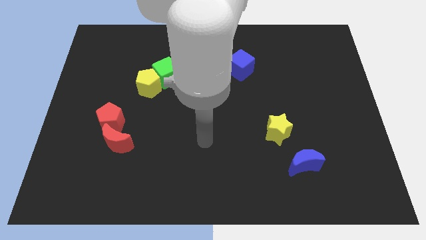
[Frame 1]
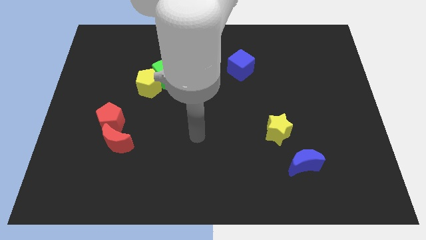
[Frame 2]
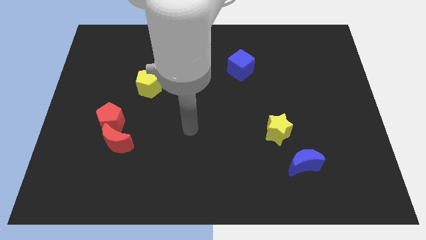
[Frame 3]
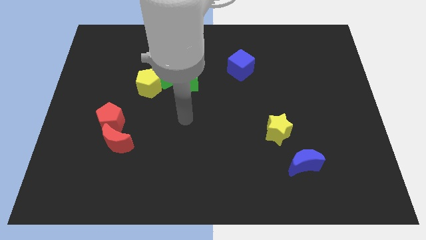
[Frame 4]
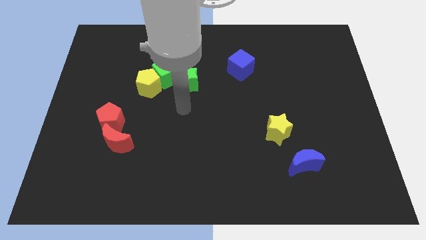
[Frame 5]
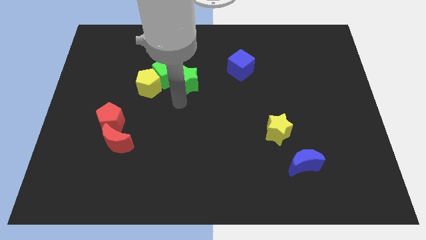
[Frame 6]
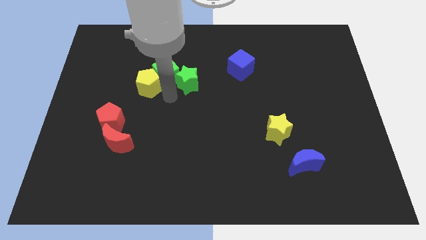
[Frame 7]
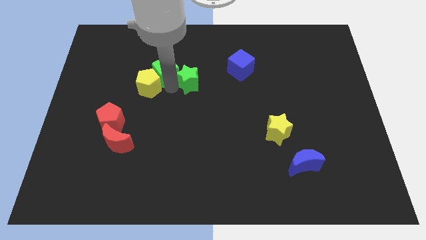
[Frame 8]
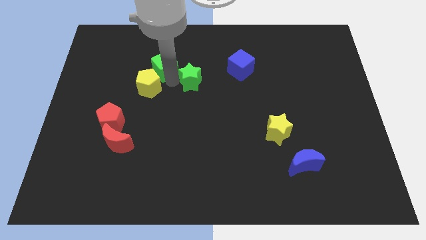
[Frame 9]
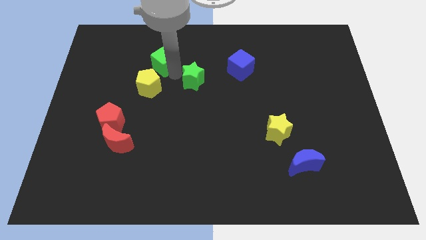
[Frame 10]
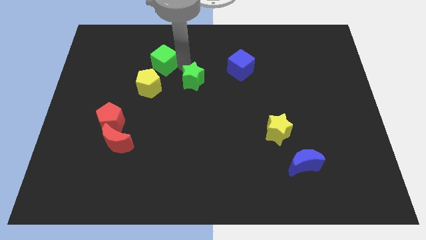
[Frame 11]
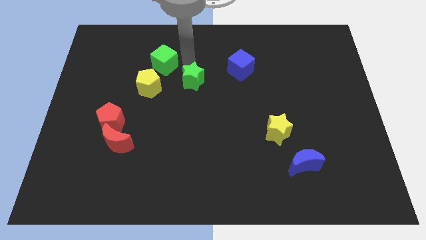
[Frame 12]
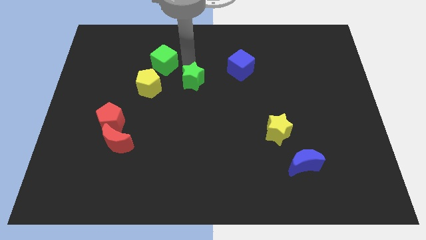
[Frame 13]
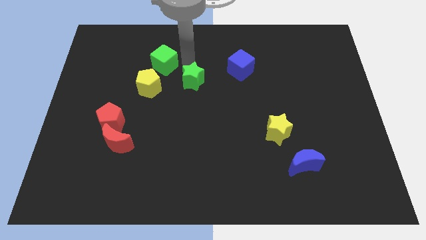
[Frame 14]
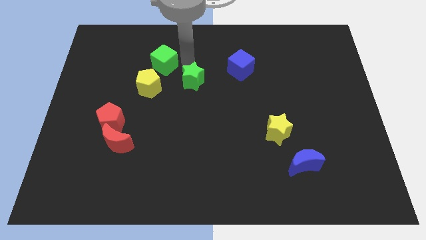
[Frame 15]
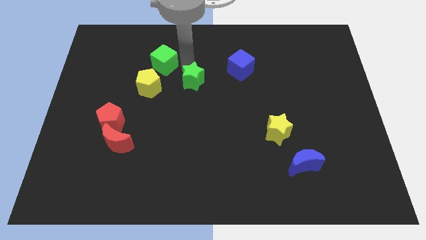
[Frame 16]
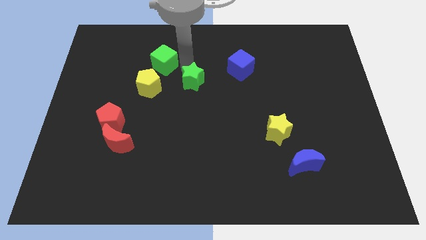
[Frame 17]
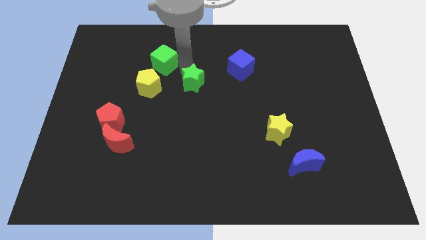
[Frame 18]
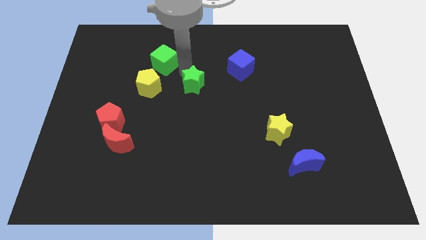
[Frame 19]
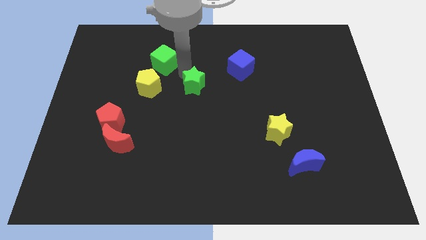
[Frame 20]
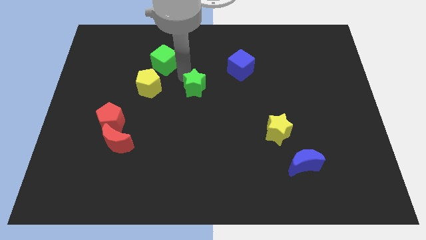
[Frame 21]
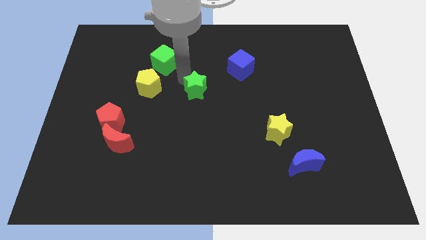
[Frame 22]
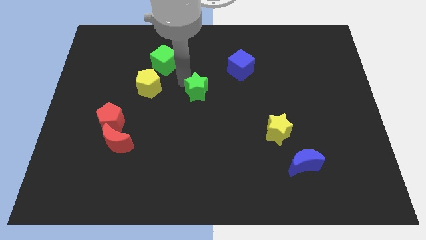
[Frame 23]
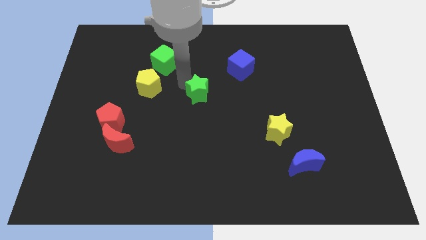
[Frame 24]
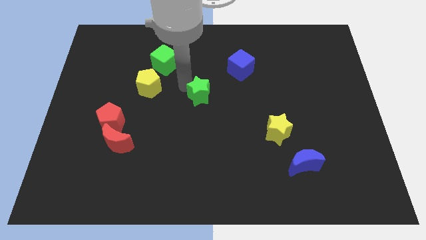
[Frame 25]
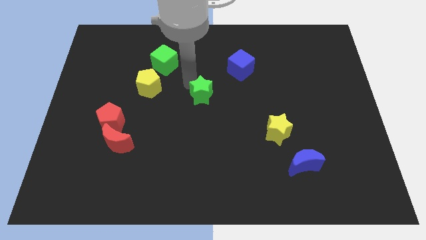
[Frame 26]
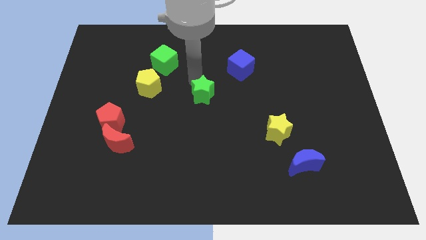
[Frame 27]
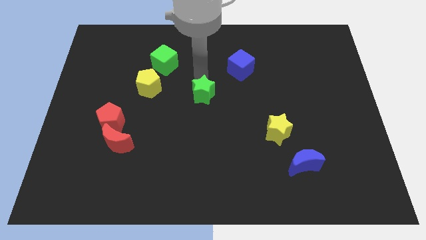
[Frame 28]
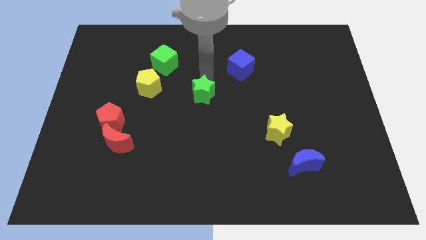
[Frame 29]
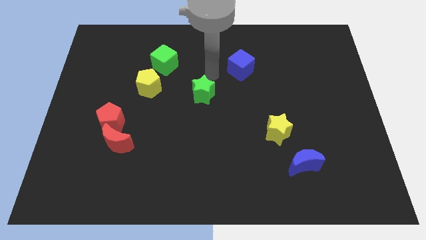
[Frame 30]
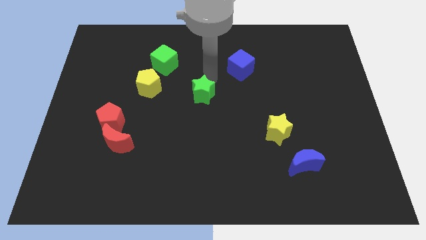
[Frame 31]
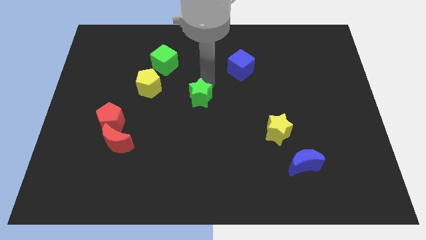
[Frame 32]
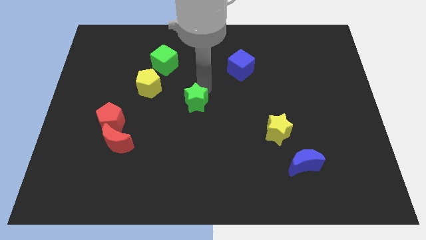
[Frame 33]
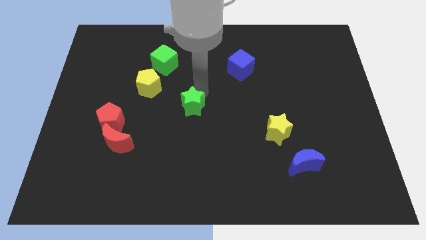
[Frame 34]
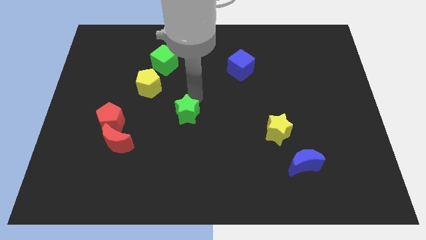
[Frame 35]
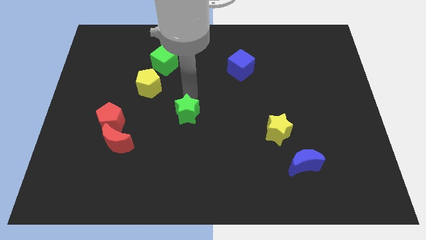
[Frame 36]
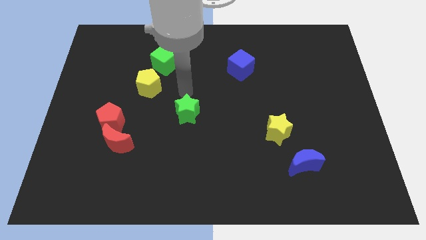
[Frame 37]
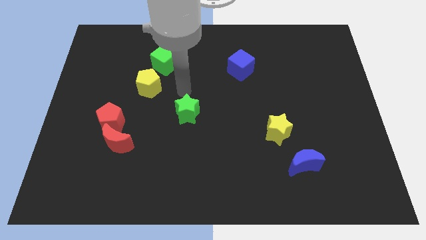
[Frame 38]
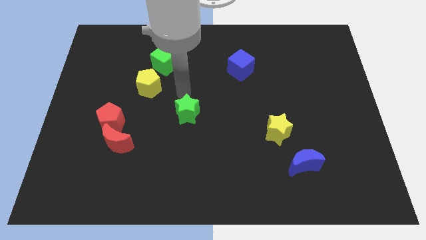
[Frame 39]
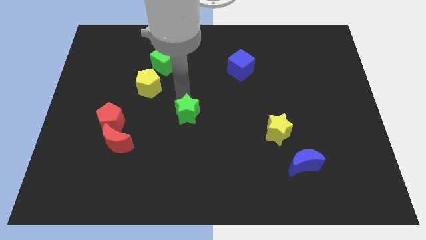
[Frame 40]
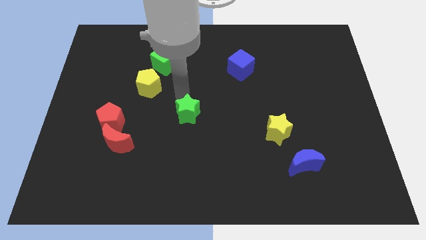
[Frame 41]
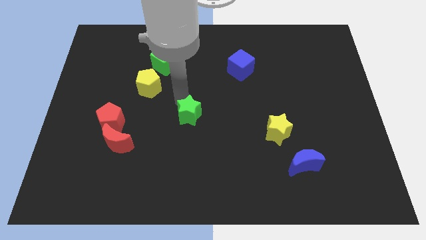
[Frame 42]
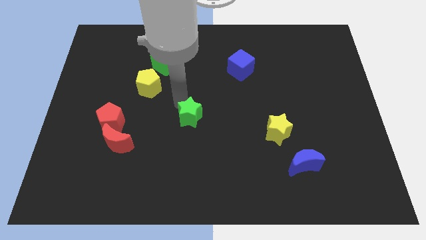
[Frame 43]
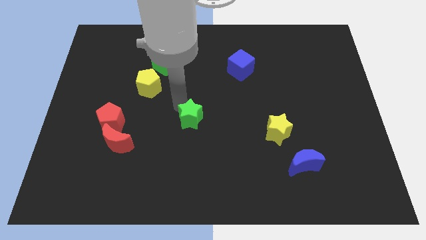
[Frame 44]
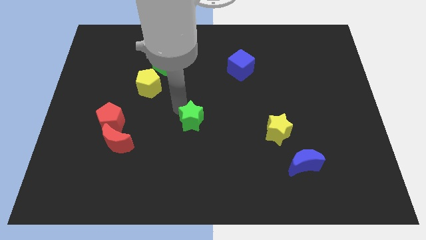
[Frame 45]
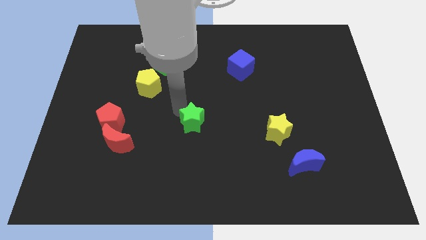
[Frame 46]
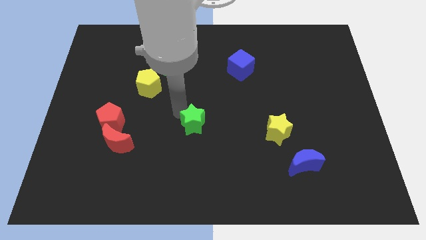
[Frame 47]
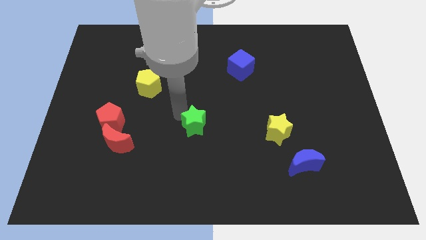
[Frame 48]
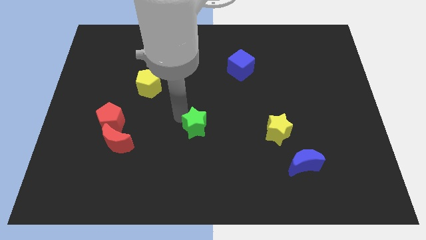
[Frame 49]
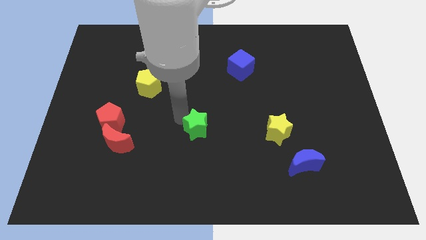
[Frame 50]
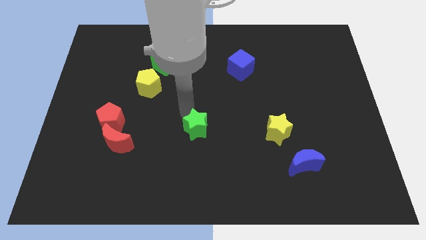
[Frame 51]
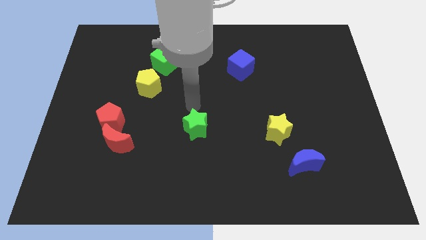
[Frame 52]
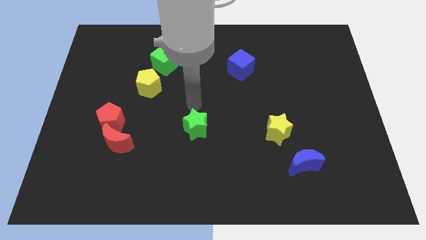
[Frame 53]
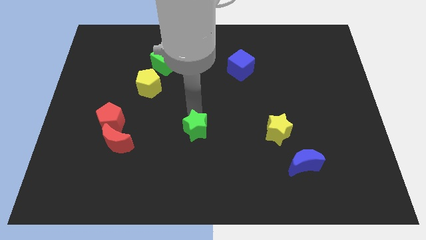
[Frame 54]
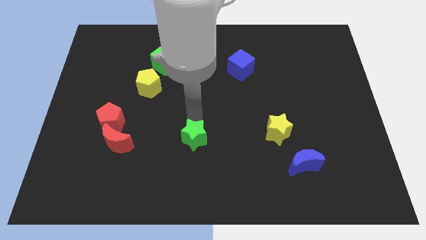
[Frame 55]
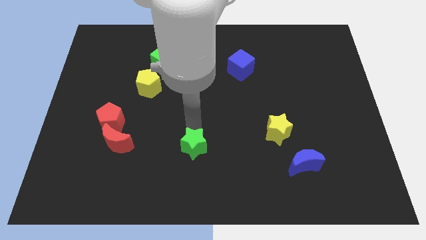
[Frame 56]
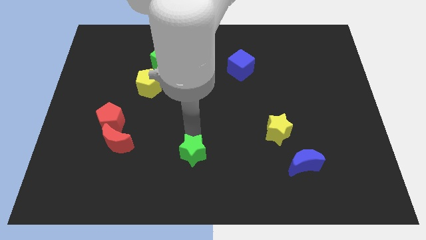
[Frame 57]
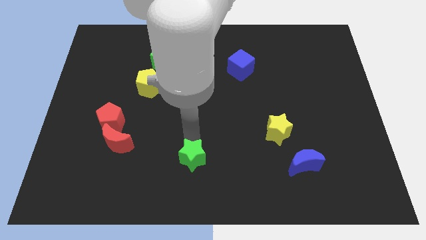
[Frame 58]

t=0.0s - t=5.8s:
push the green star to the bottom side
